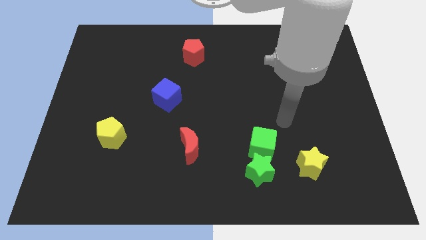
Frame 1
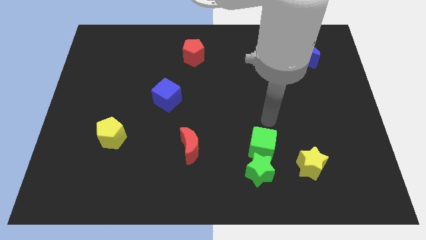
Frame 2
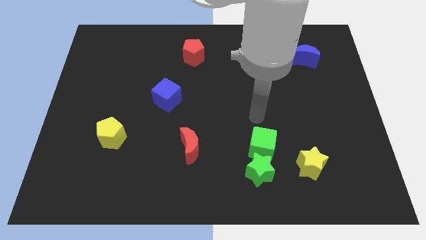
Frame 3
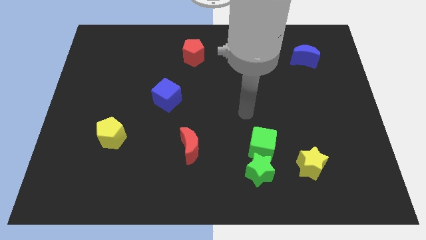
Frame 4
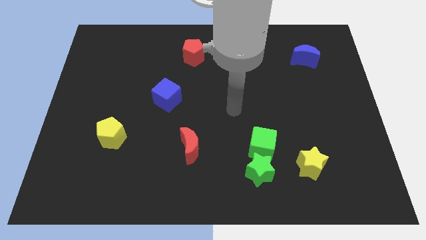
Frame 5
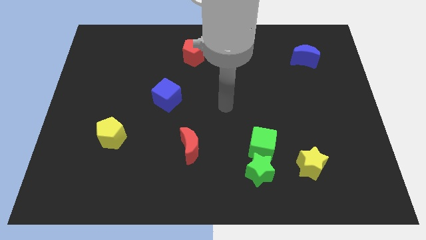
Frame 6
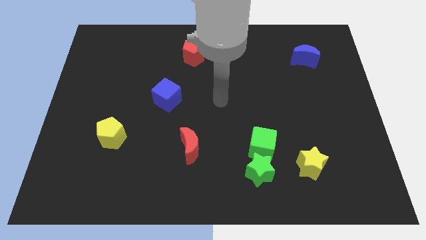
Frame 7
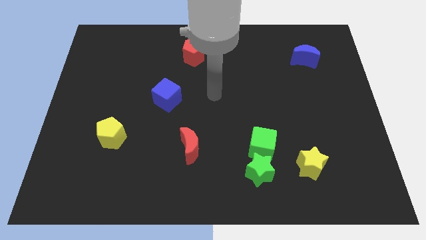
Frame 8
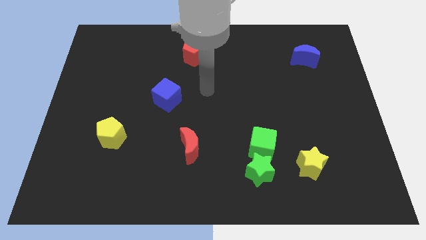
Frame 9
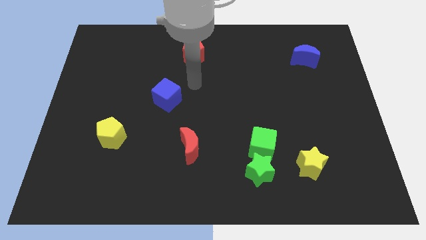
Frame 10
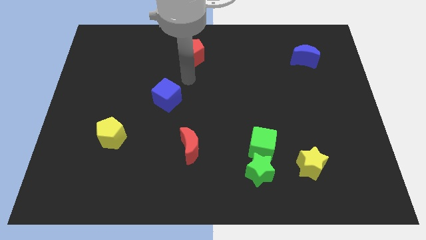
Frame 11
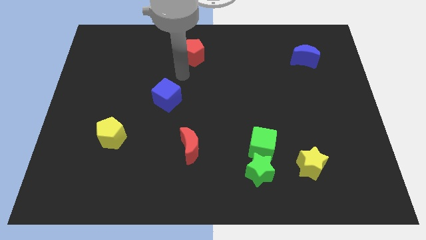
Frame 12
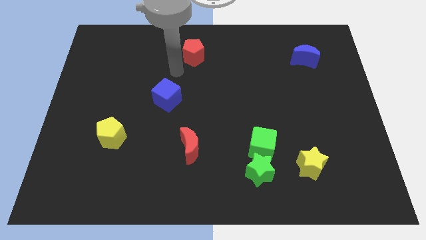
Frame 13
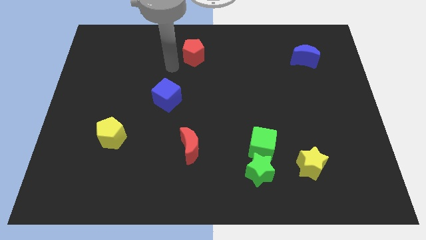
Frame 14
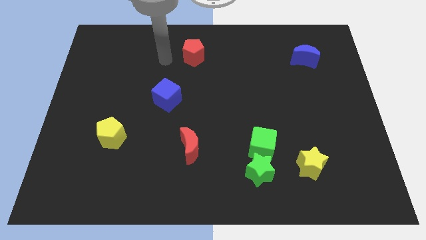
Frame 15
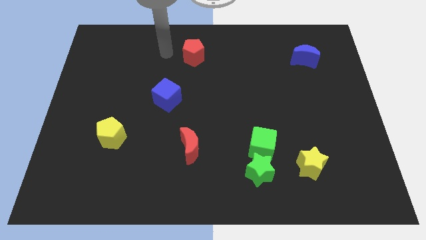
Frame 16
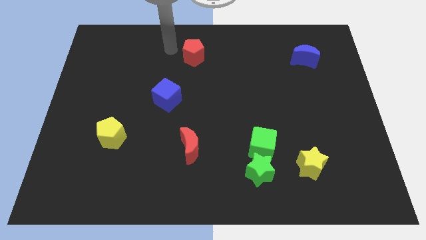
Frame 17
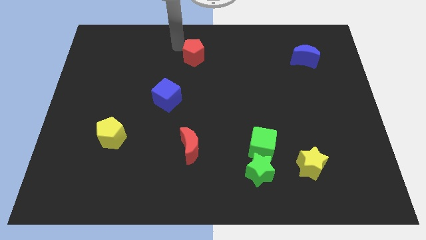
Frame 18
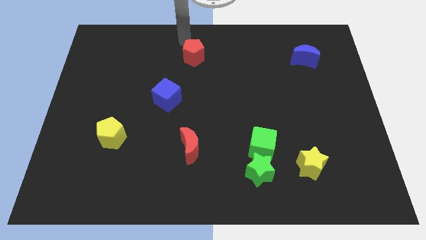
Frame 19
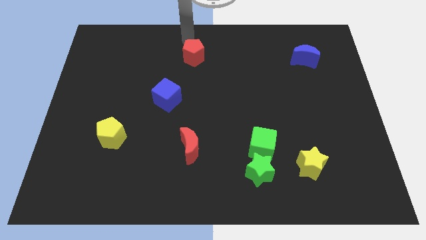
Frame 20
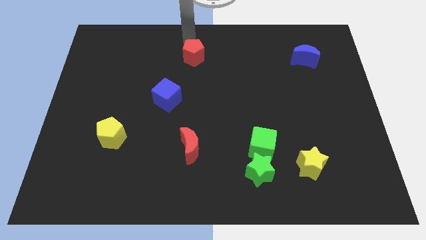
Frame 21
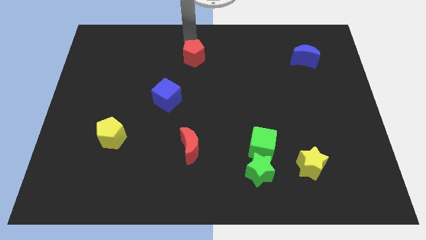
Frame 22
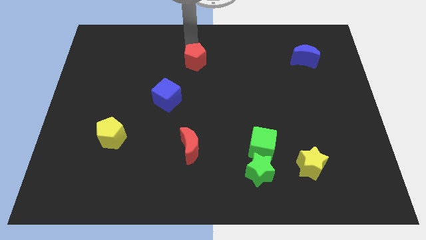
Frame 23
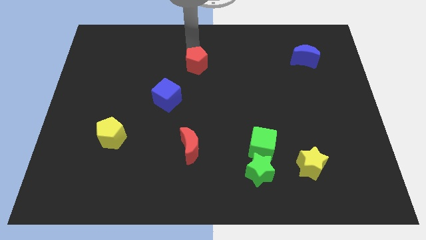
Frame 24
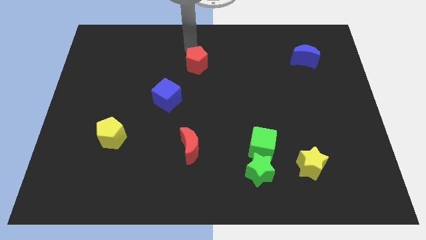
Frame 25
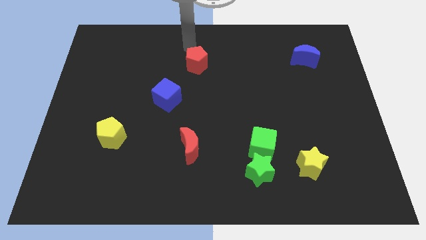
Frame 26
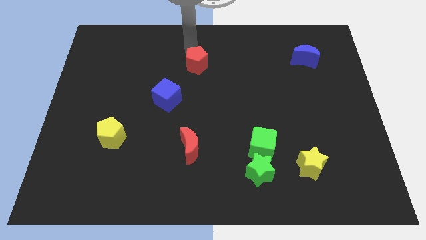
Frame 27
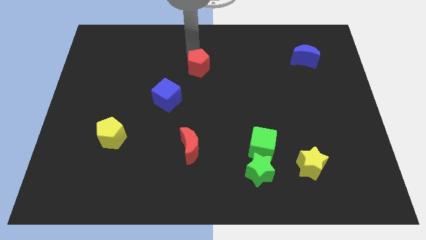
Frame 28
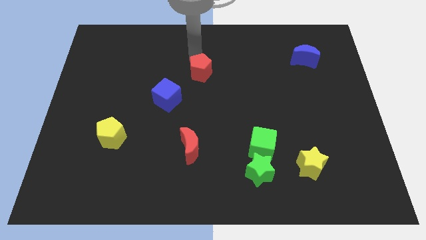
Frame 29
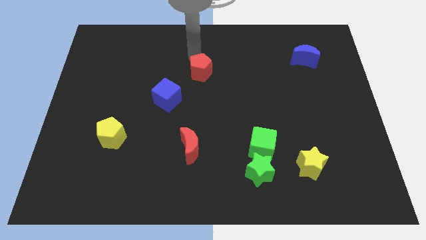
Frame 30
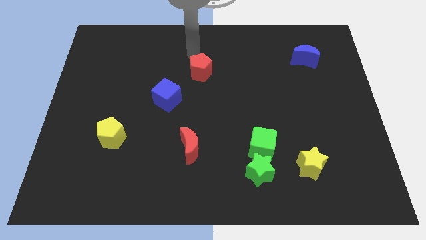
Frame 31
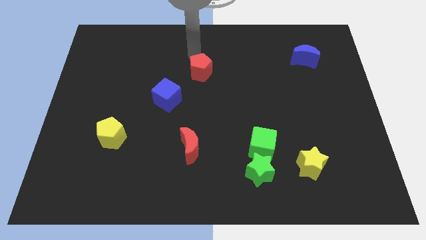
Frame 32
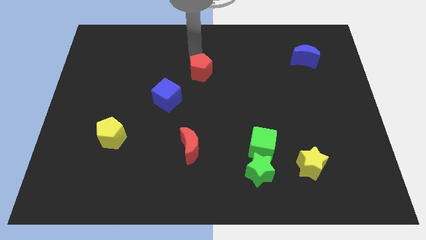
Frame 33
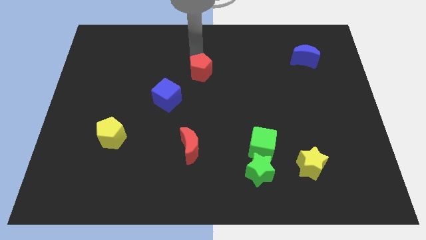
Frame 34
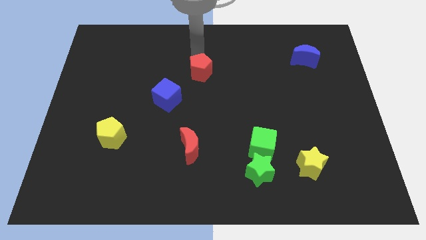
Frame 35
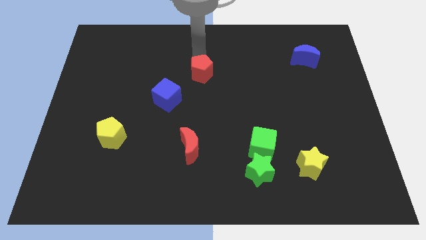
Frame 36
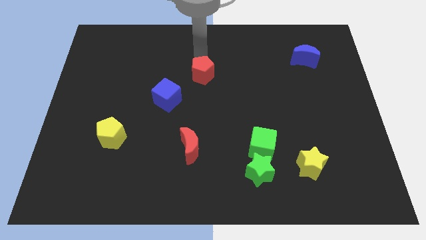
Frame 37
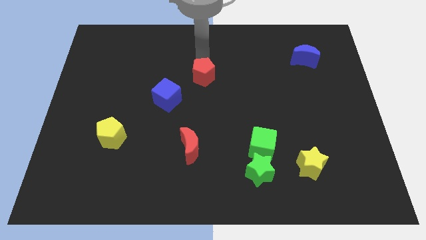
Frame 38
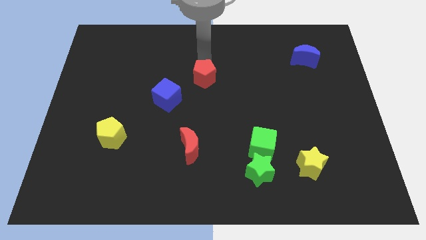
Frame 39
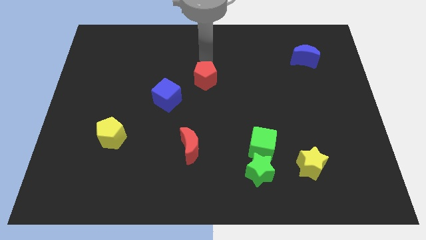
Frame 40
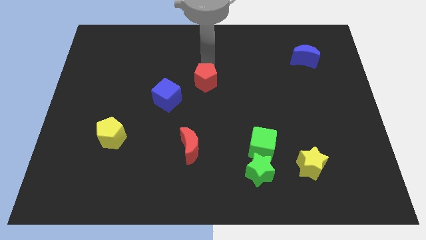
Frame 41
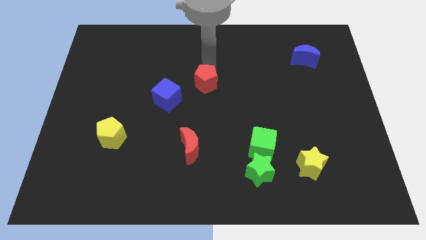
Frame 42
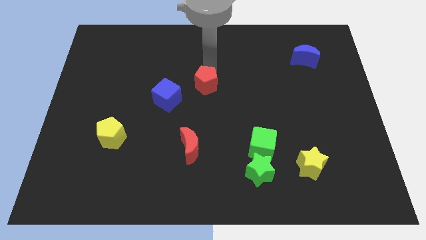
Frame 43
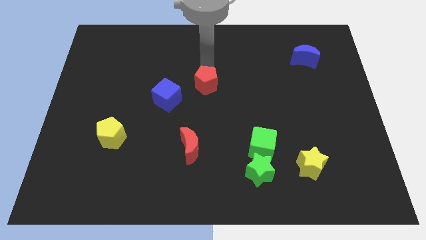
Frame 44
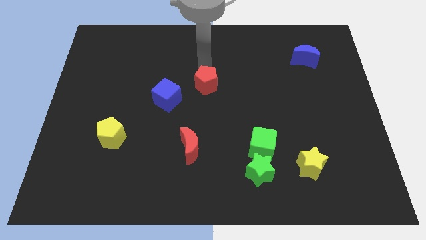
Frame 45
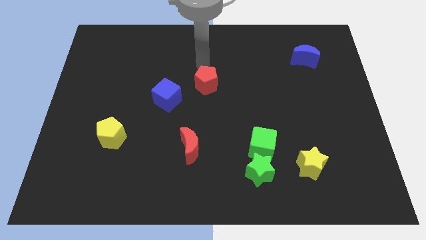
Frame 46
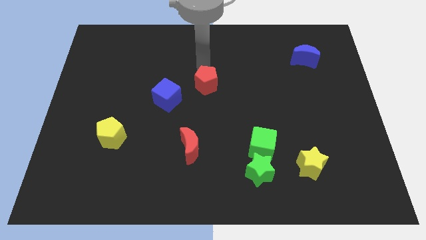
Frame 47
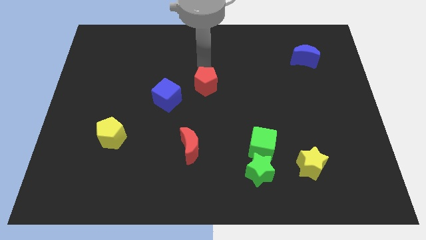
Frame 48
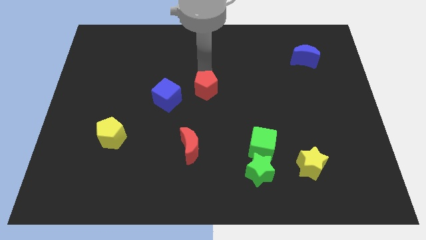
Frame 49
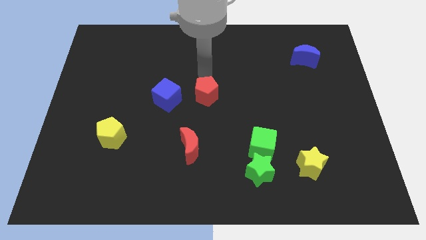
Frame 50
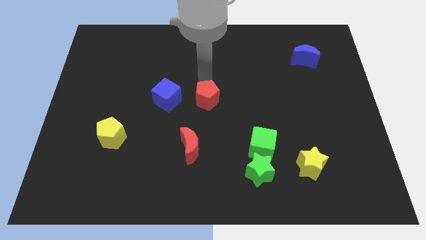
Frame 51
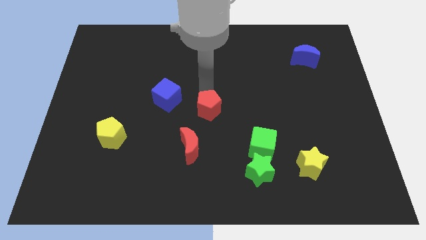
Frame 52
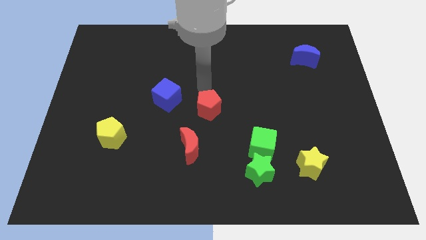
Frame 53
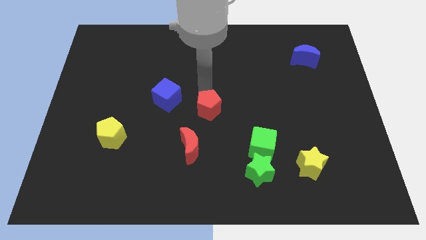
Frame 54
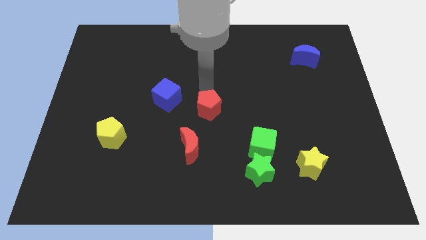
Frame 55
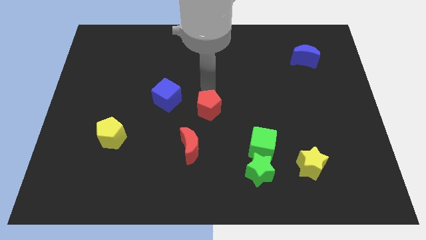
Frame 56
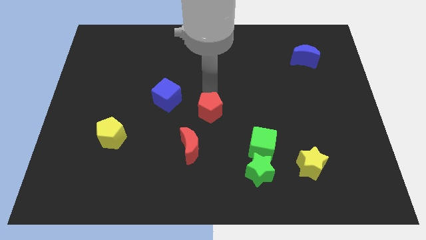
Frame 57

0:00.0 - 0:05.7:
slide the red pentagon to the top right of the red moon
